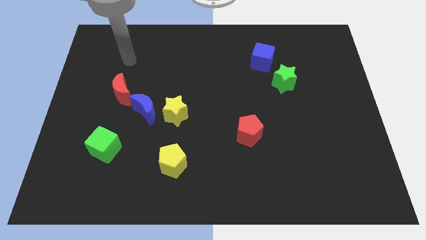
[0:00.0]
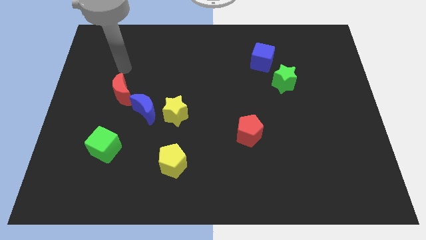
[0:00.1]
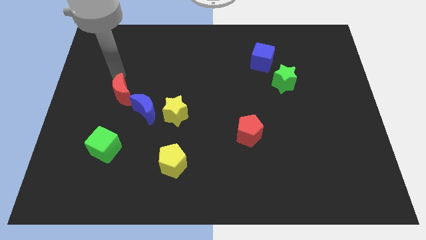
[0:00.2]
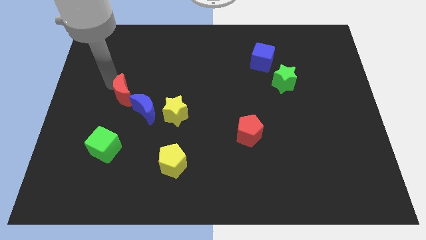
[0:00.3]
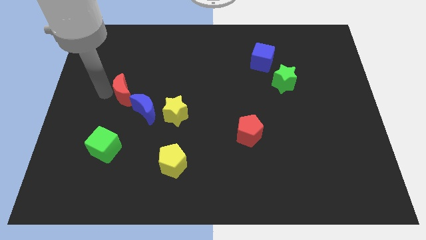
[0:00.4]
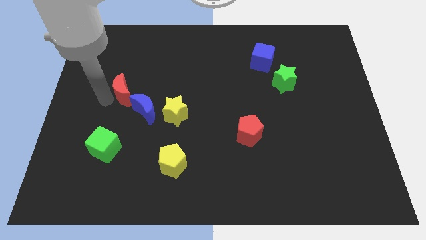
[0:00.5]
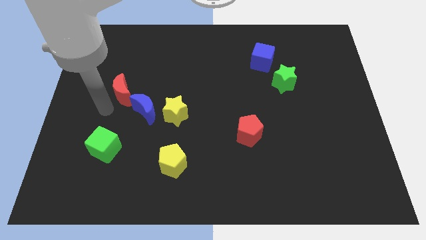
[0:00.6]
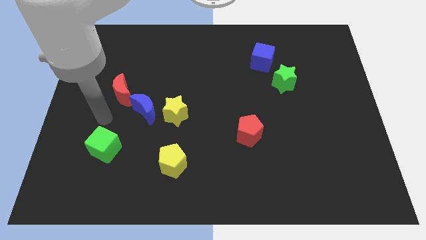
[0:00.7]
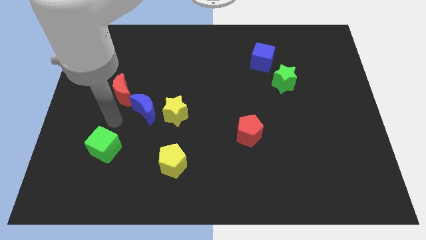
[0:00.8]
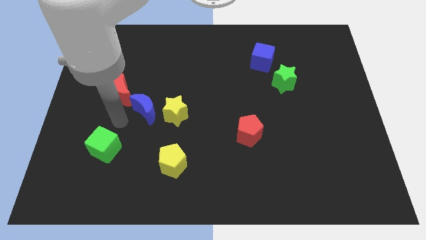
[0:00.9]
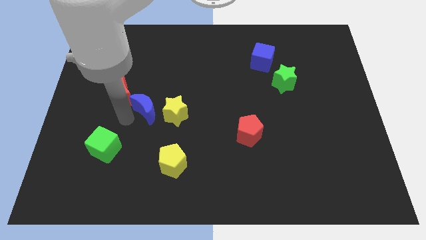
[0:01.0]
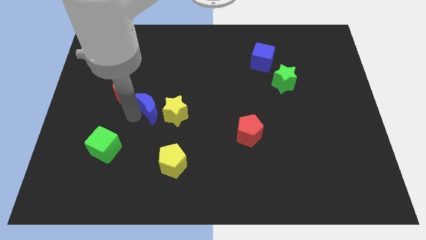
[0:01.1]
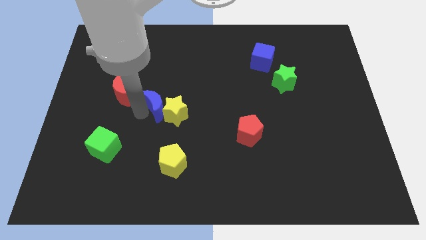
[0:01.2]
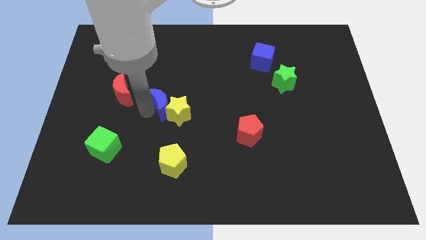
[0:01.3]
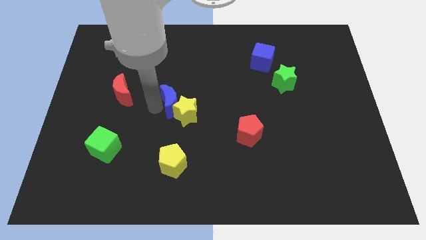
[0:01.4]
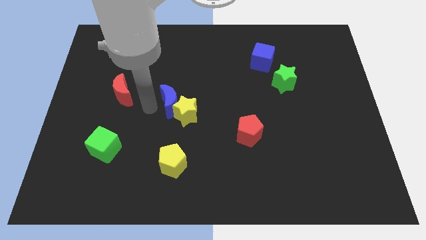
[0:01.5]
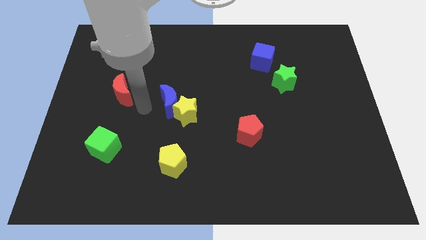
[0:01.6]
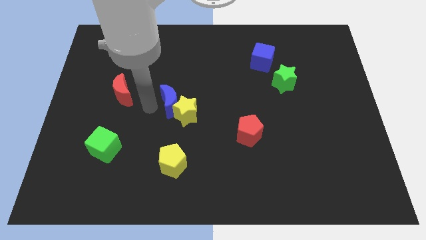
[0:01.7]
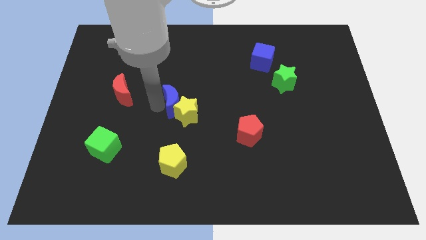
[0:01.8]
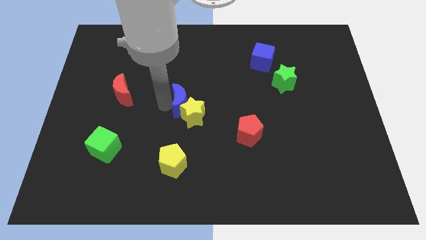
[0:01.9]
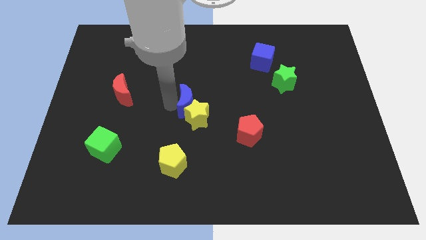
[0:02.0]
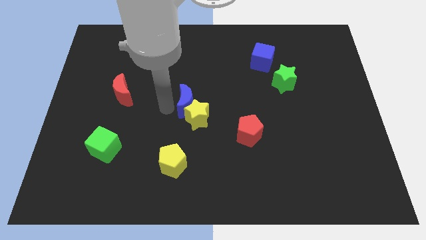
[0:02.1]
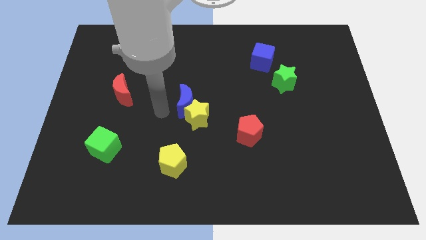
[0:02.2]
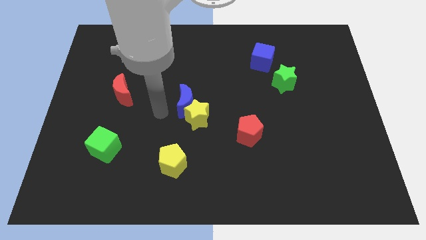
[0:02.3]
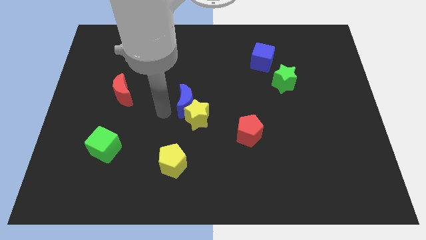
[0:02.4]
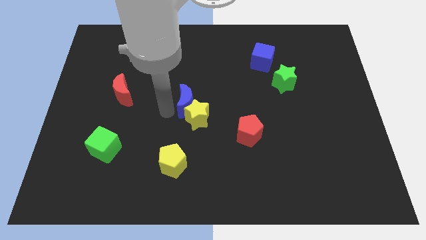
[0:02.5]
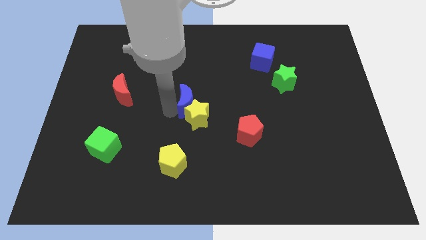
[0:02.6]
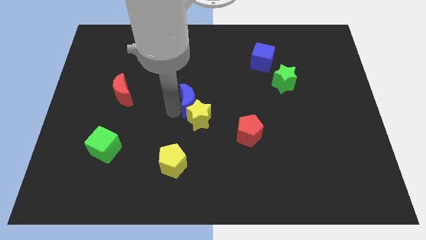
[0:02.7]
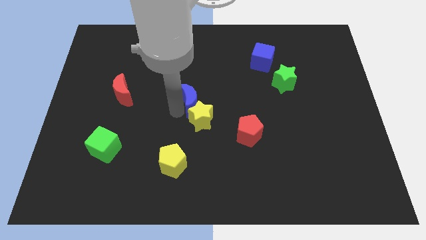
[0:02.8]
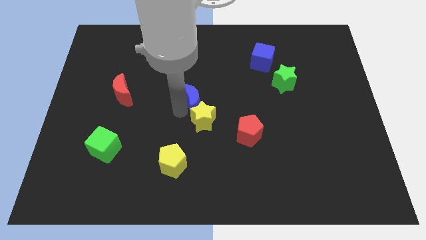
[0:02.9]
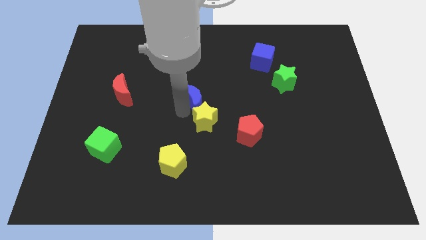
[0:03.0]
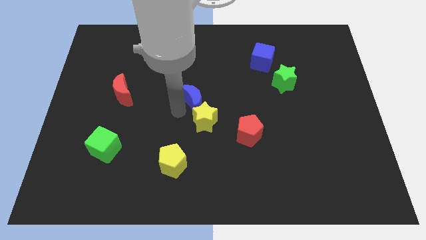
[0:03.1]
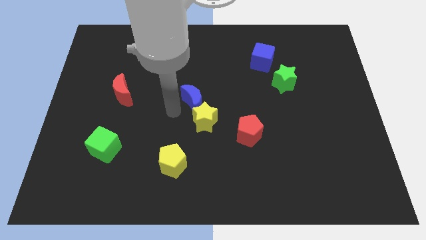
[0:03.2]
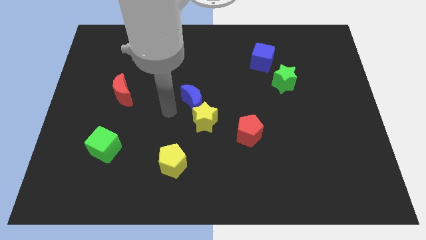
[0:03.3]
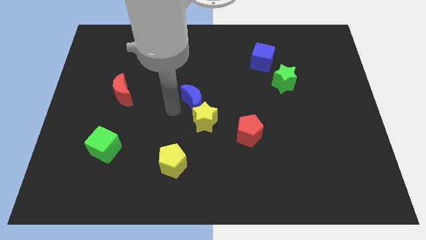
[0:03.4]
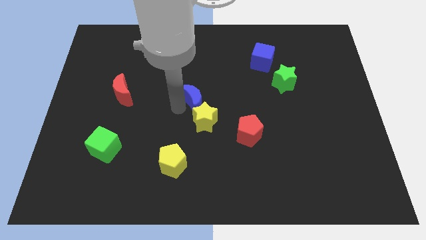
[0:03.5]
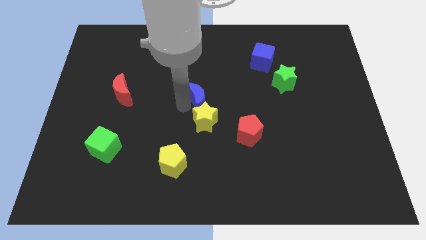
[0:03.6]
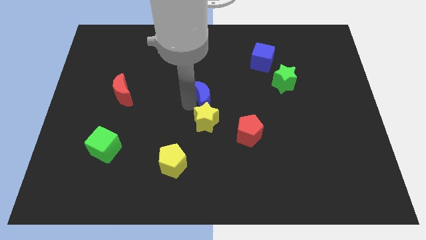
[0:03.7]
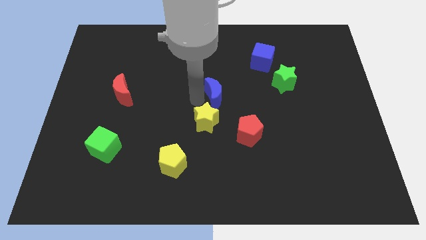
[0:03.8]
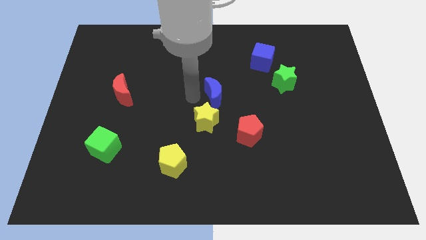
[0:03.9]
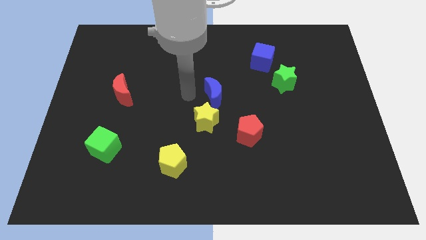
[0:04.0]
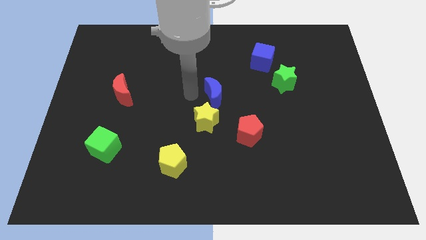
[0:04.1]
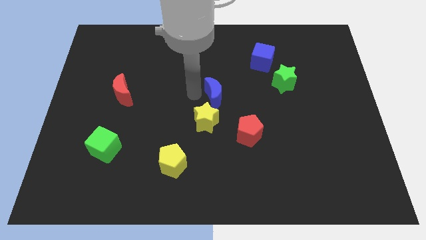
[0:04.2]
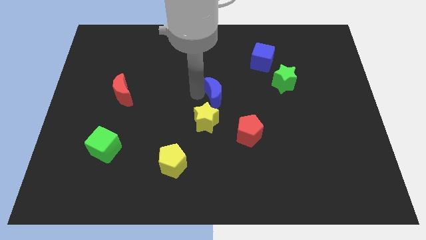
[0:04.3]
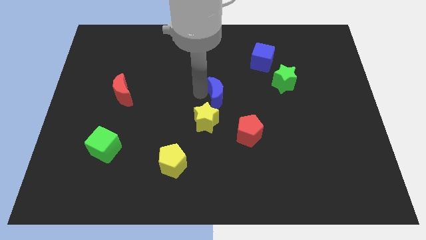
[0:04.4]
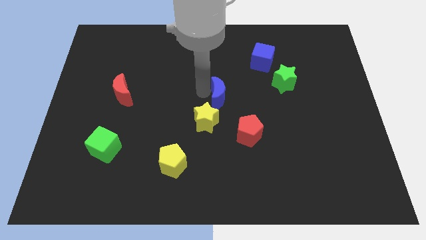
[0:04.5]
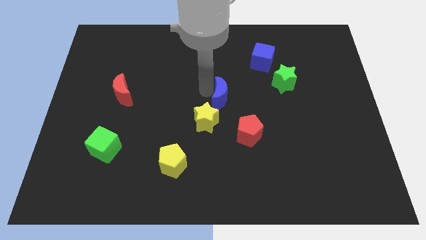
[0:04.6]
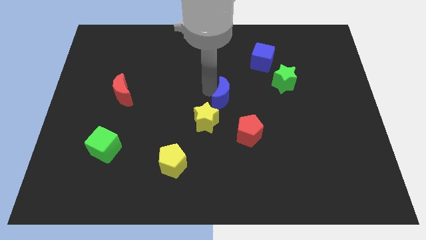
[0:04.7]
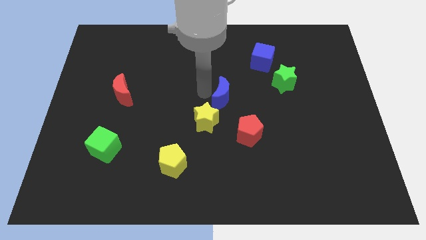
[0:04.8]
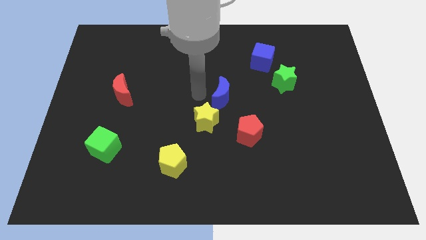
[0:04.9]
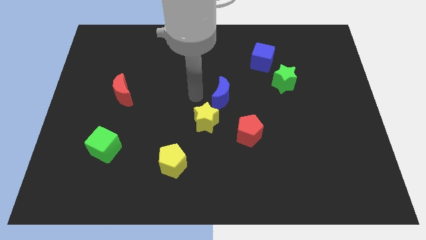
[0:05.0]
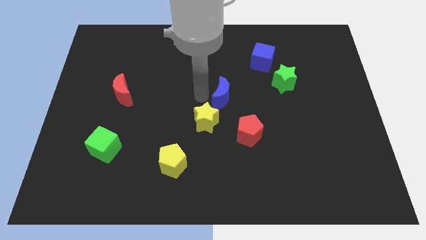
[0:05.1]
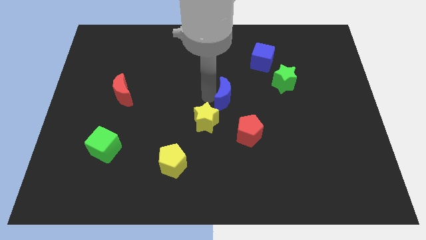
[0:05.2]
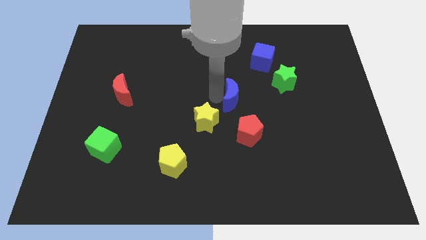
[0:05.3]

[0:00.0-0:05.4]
slide the blue moon above the red pentagon

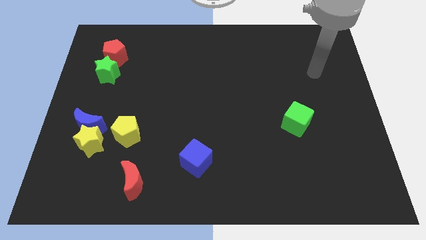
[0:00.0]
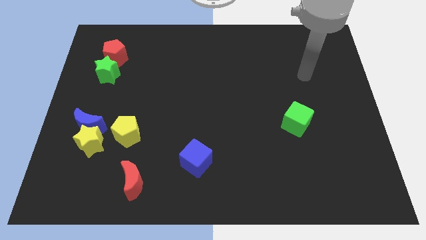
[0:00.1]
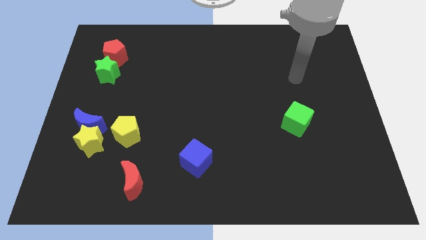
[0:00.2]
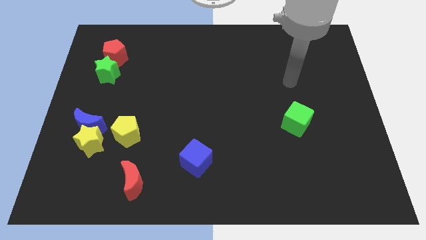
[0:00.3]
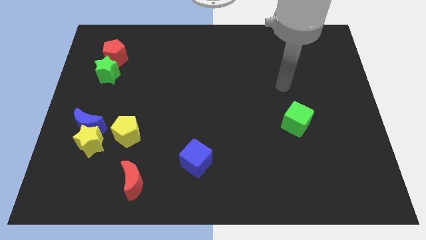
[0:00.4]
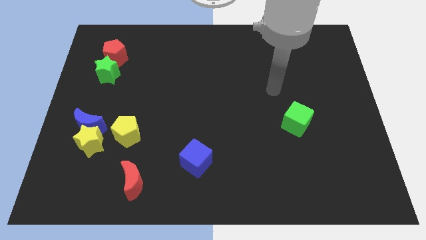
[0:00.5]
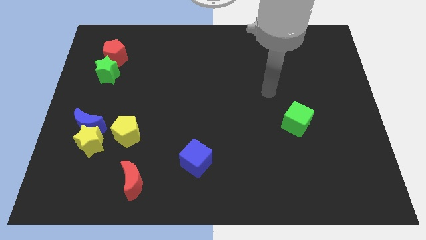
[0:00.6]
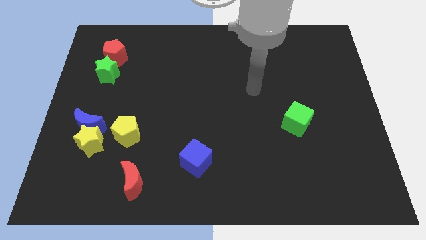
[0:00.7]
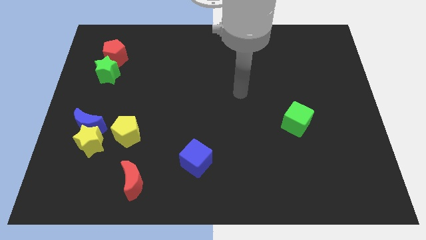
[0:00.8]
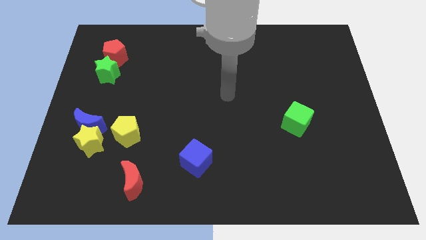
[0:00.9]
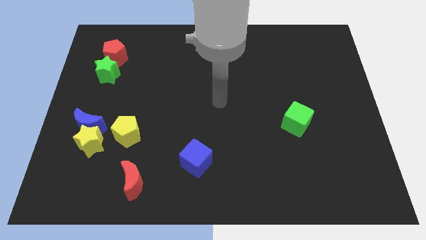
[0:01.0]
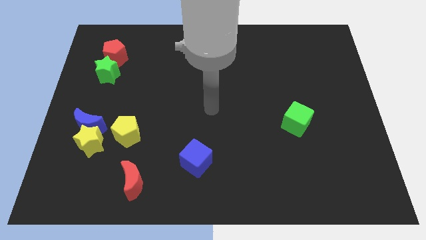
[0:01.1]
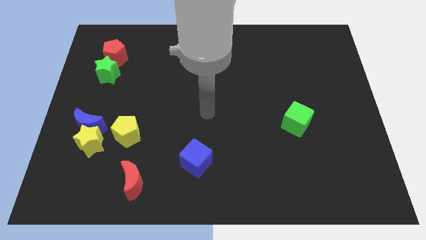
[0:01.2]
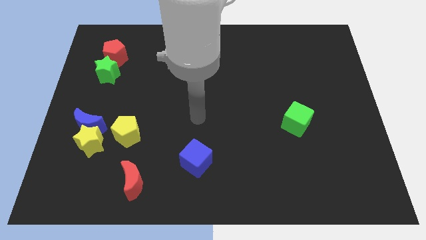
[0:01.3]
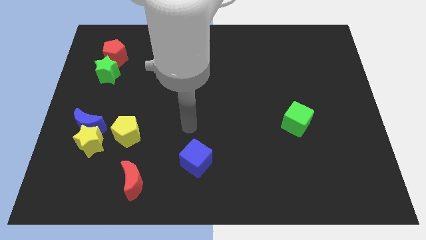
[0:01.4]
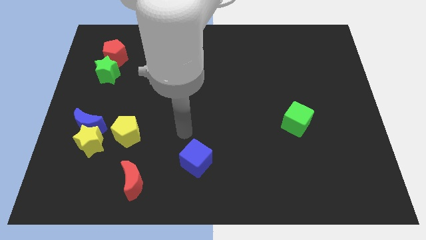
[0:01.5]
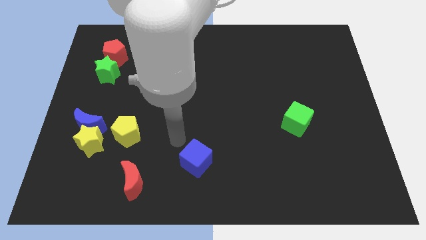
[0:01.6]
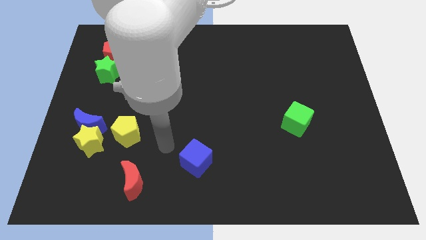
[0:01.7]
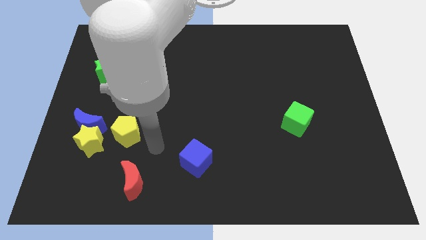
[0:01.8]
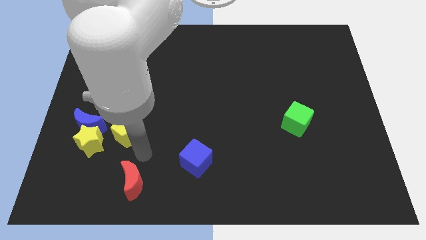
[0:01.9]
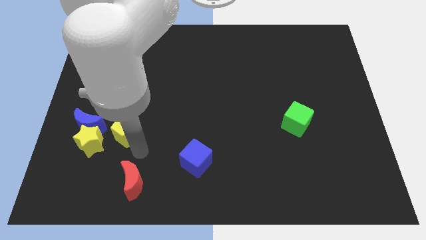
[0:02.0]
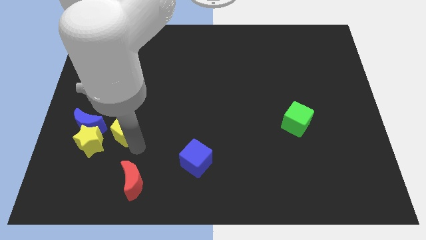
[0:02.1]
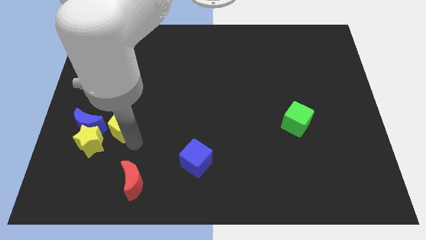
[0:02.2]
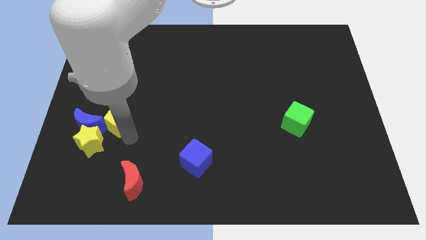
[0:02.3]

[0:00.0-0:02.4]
push the yellow pentagon to the top right of the blue moon
